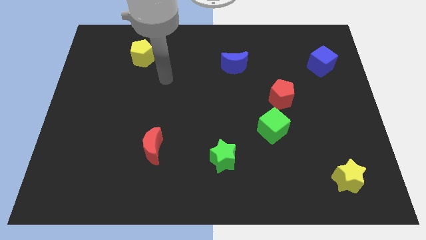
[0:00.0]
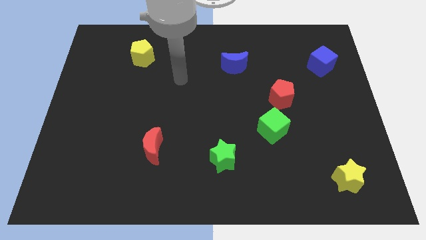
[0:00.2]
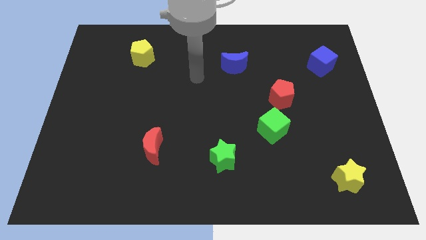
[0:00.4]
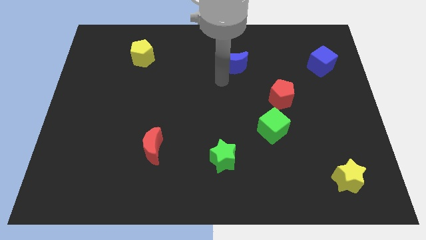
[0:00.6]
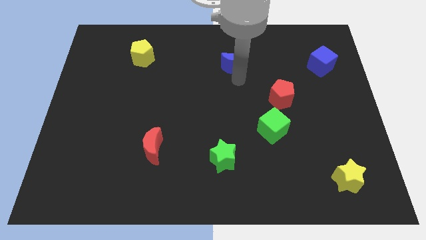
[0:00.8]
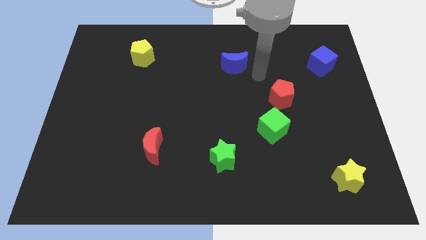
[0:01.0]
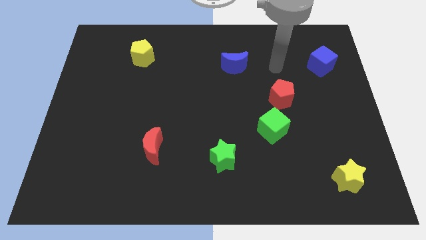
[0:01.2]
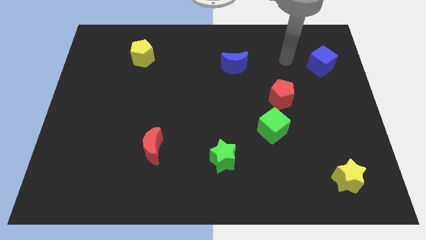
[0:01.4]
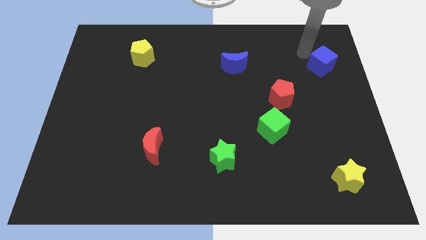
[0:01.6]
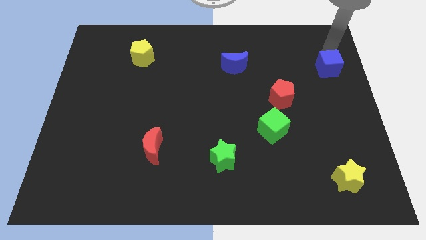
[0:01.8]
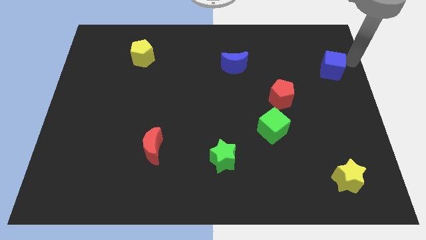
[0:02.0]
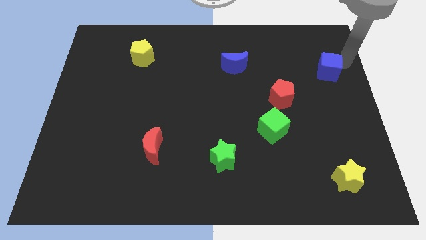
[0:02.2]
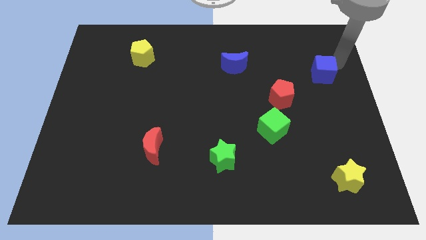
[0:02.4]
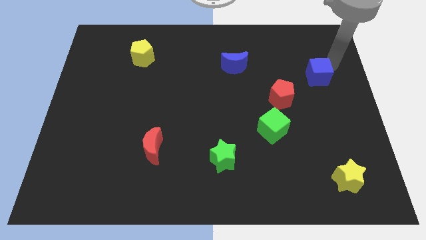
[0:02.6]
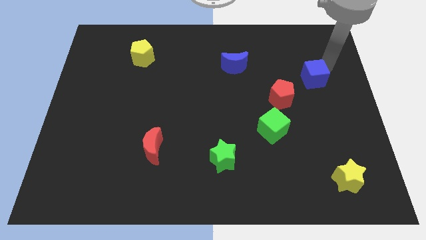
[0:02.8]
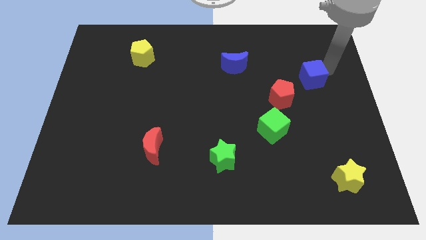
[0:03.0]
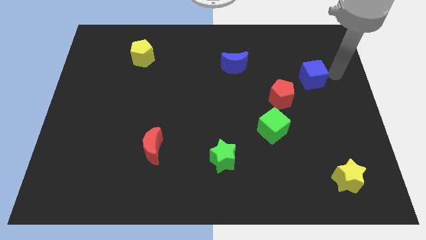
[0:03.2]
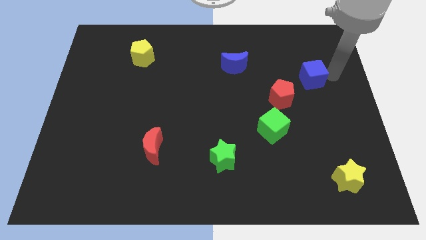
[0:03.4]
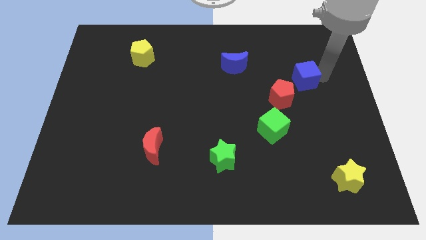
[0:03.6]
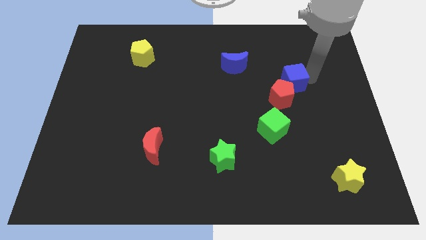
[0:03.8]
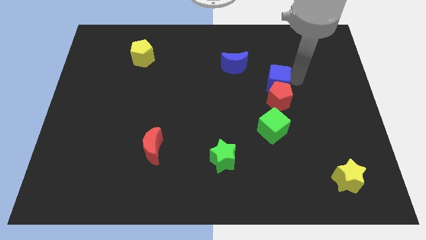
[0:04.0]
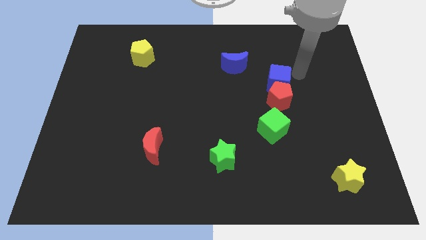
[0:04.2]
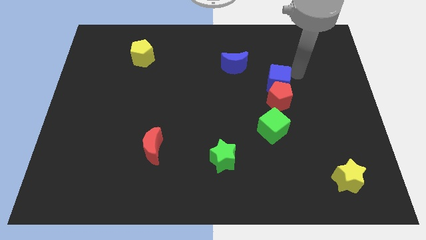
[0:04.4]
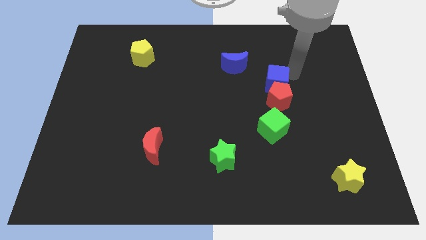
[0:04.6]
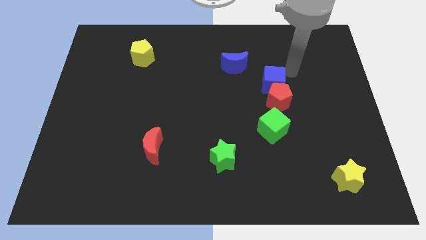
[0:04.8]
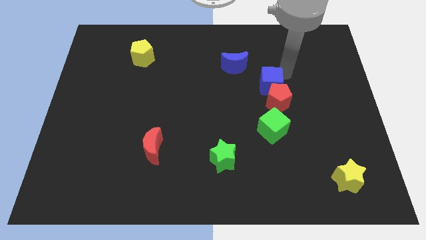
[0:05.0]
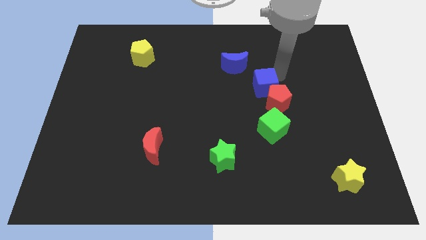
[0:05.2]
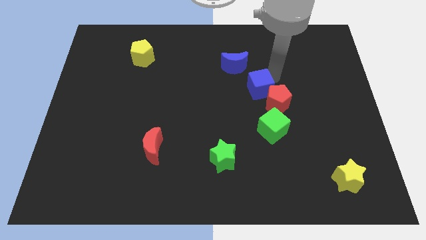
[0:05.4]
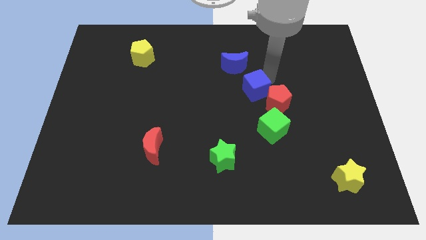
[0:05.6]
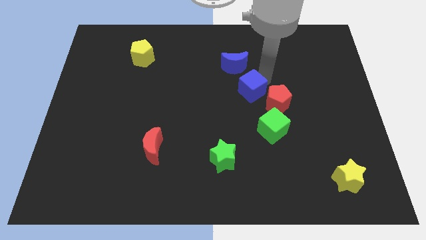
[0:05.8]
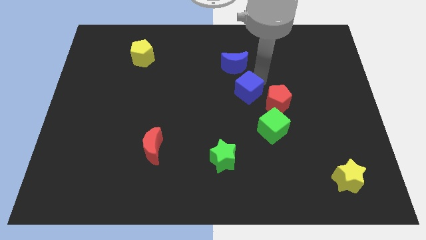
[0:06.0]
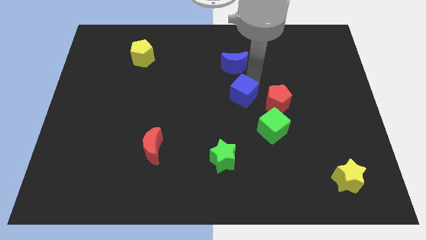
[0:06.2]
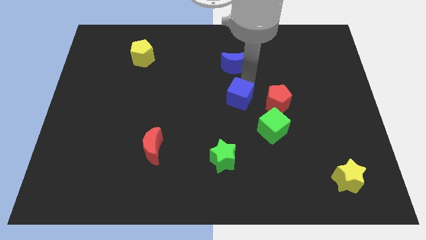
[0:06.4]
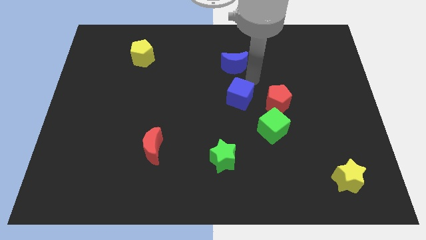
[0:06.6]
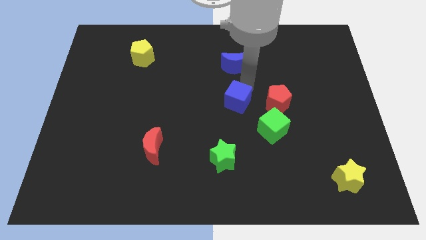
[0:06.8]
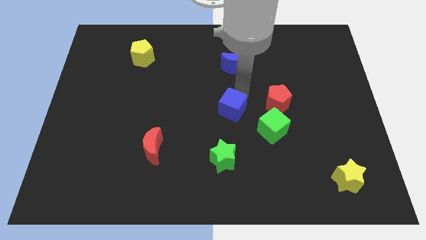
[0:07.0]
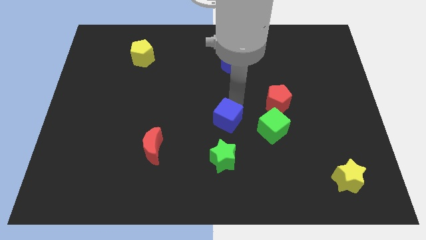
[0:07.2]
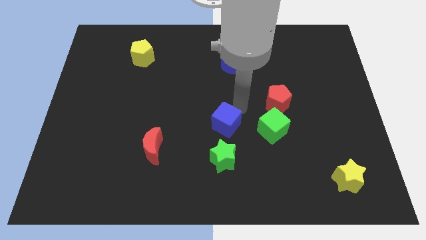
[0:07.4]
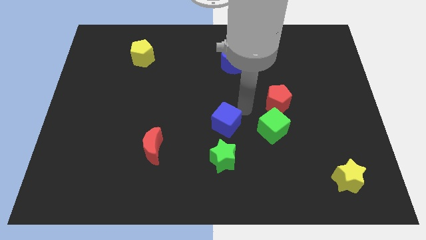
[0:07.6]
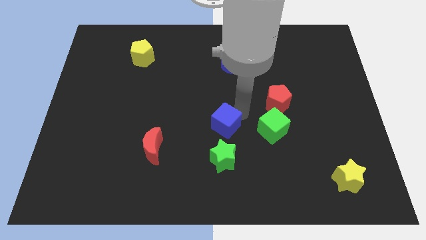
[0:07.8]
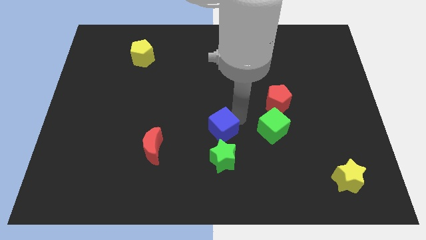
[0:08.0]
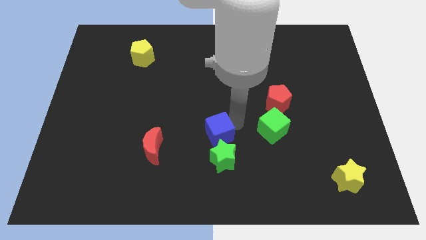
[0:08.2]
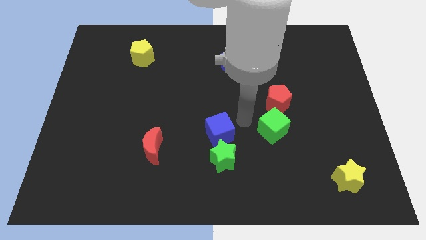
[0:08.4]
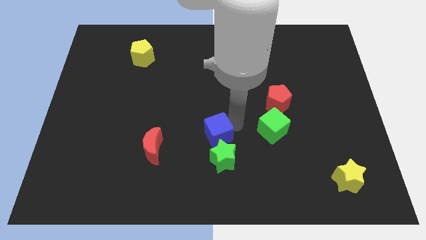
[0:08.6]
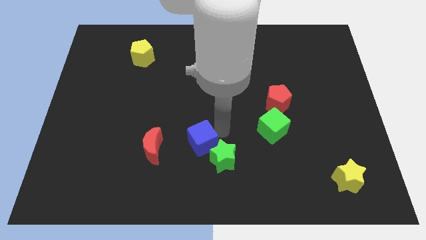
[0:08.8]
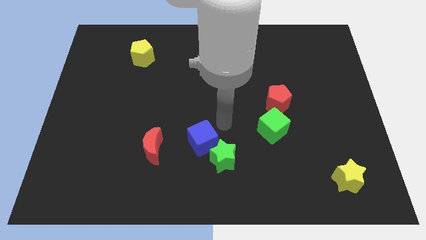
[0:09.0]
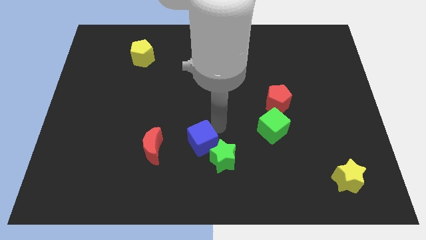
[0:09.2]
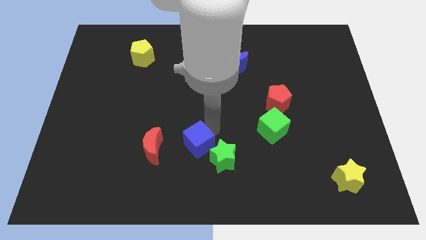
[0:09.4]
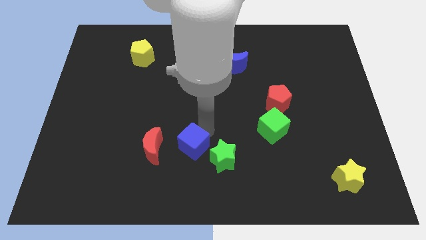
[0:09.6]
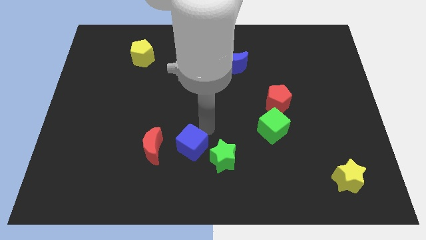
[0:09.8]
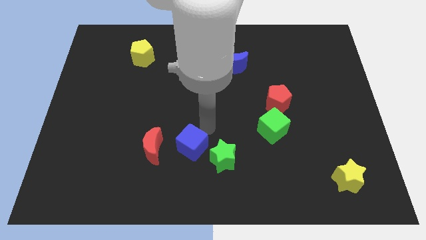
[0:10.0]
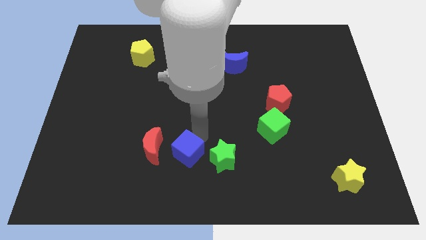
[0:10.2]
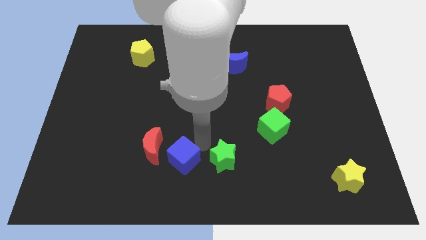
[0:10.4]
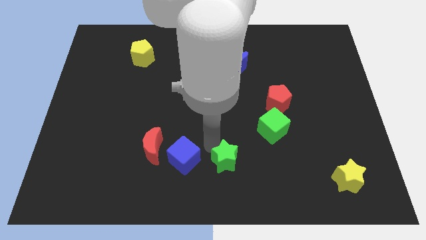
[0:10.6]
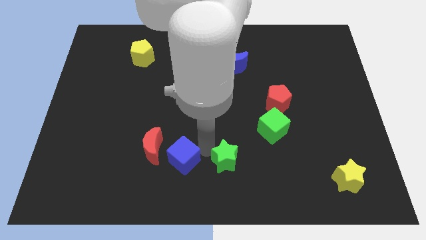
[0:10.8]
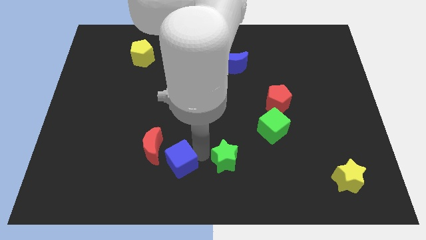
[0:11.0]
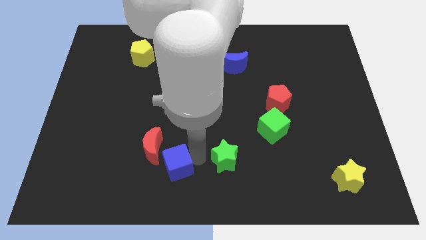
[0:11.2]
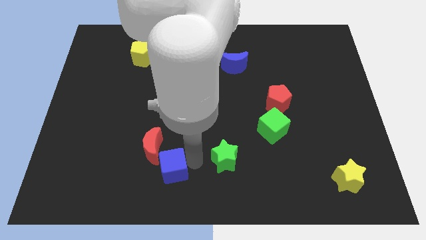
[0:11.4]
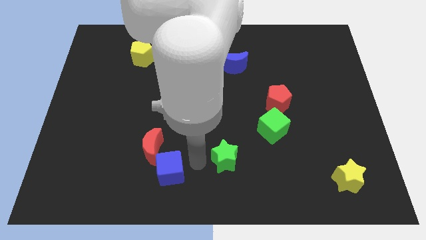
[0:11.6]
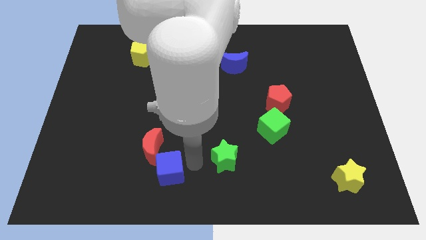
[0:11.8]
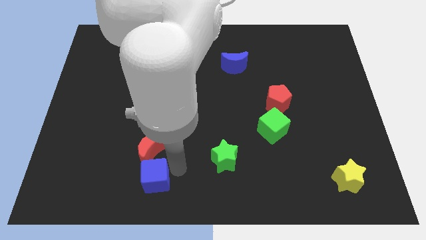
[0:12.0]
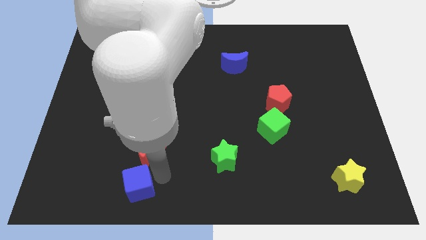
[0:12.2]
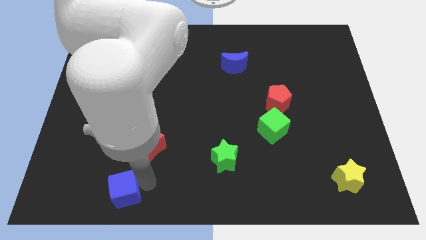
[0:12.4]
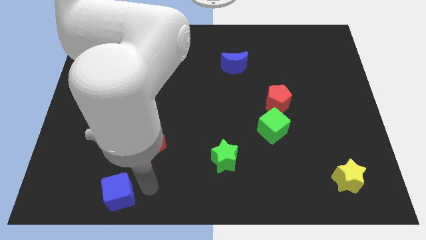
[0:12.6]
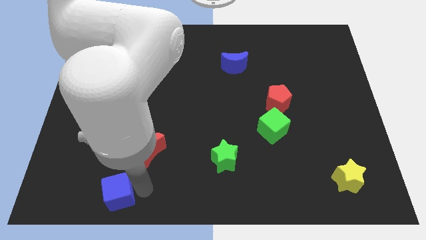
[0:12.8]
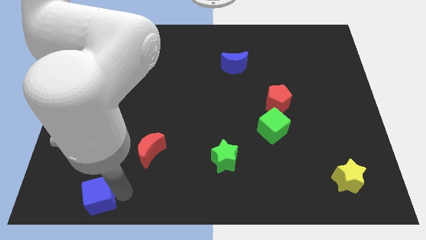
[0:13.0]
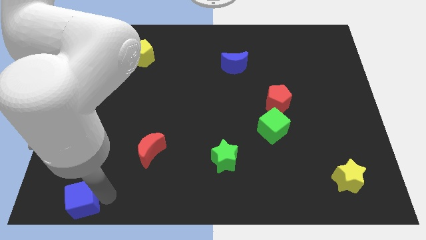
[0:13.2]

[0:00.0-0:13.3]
put the blue cube to the lower left corner
